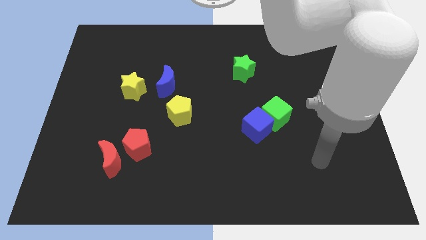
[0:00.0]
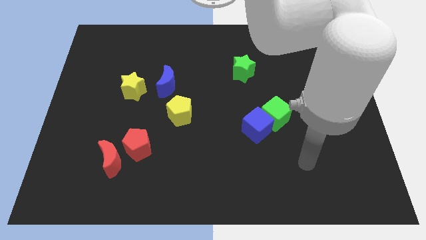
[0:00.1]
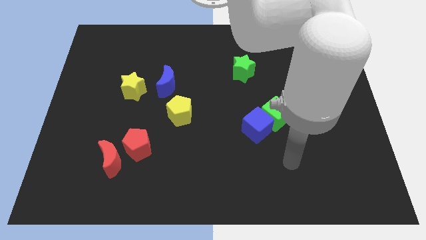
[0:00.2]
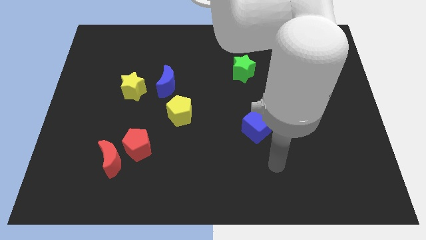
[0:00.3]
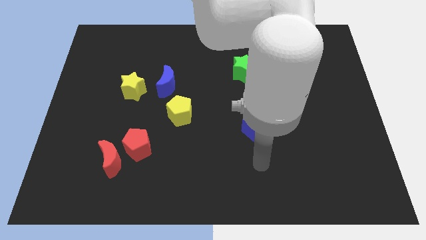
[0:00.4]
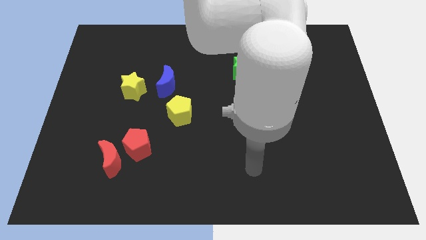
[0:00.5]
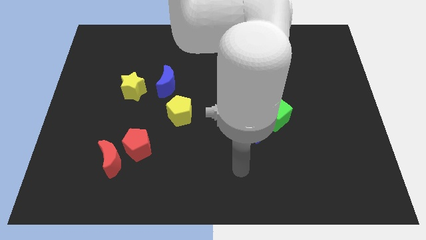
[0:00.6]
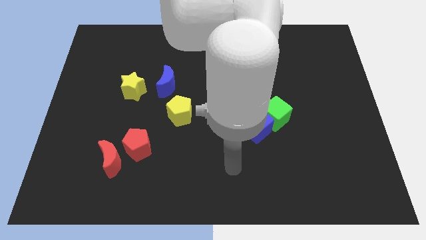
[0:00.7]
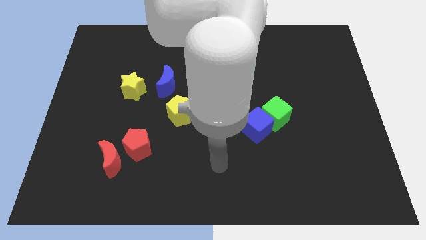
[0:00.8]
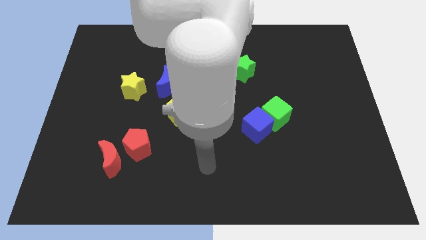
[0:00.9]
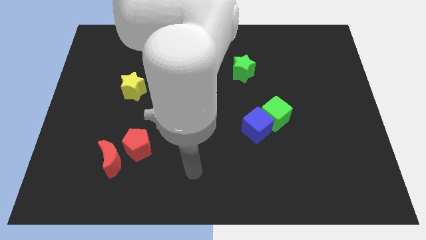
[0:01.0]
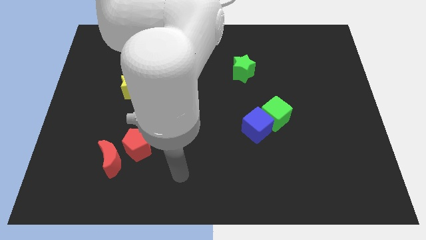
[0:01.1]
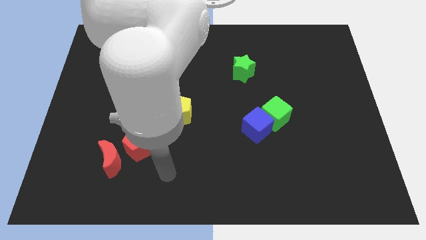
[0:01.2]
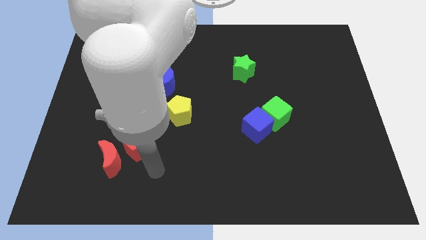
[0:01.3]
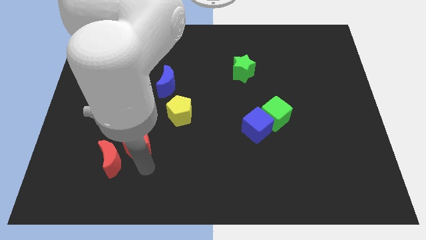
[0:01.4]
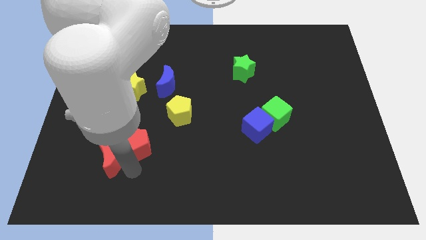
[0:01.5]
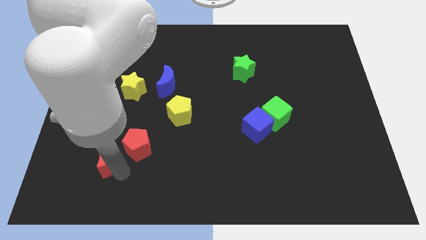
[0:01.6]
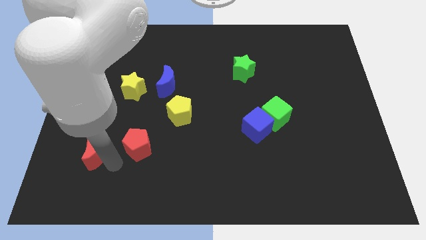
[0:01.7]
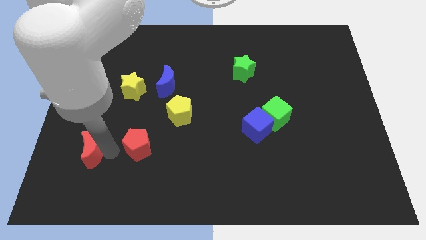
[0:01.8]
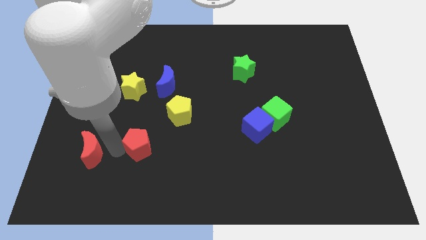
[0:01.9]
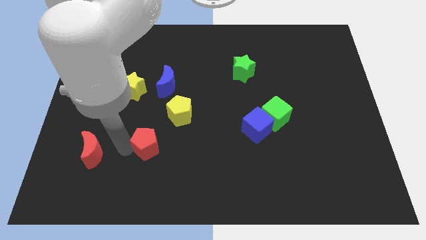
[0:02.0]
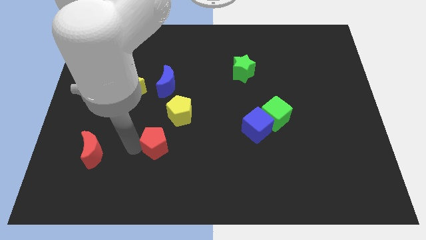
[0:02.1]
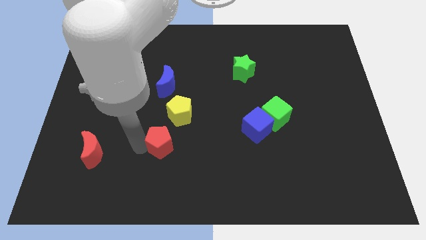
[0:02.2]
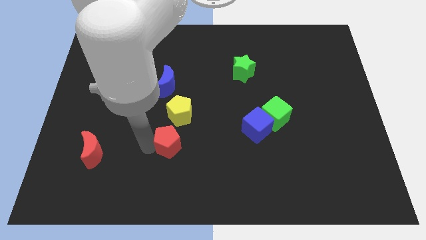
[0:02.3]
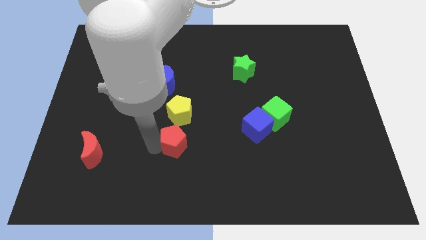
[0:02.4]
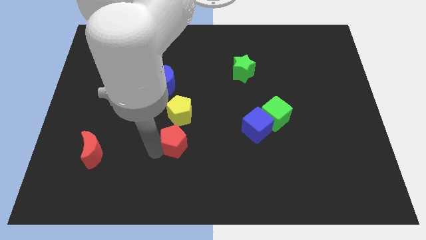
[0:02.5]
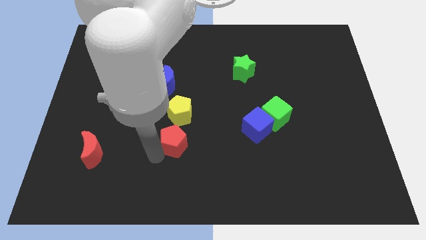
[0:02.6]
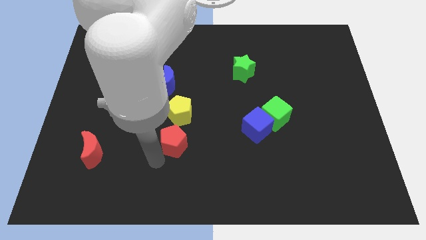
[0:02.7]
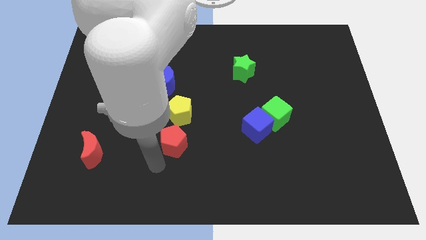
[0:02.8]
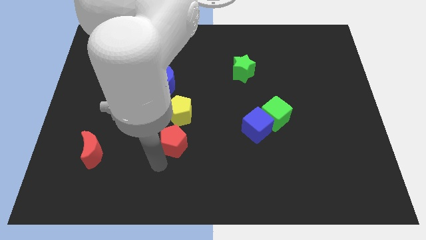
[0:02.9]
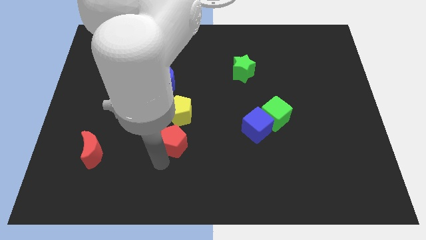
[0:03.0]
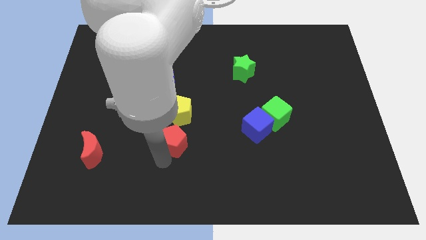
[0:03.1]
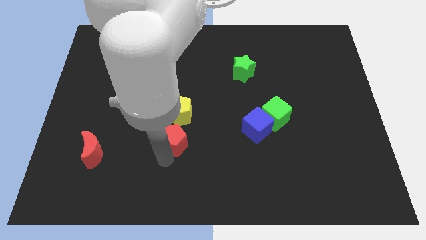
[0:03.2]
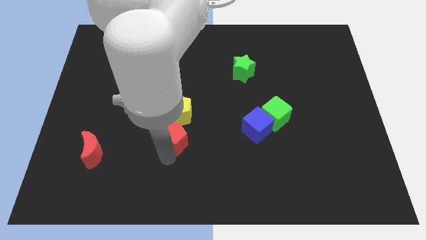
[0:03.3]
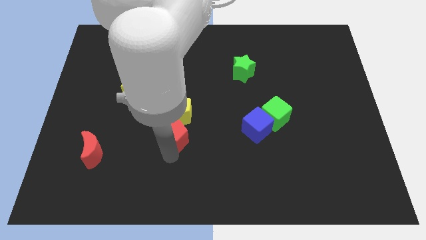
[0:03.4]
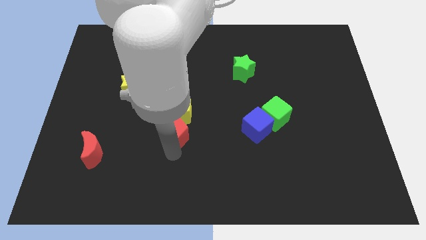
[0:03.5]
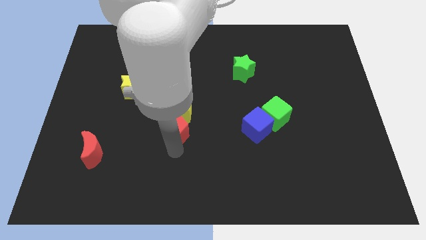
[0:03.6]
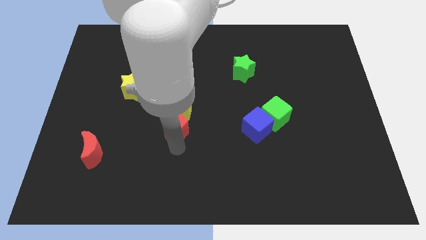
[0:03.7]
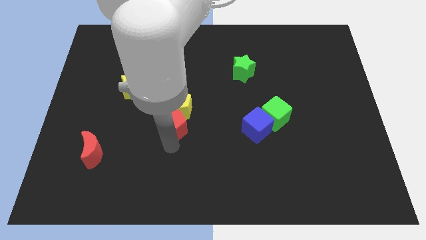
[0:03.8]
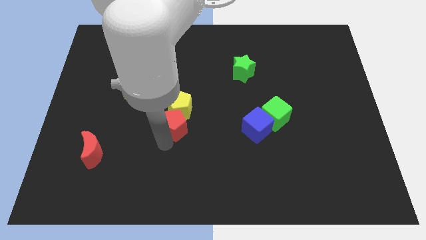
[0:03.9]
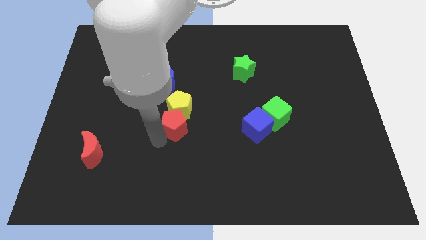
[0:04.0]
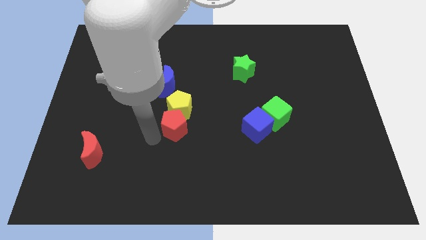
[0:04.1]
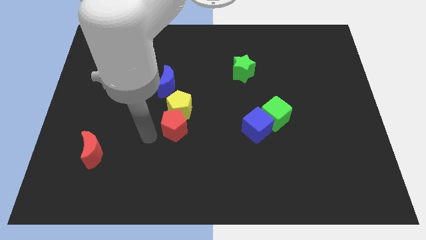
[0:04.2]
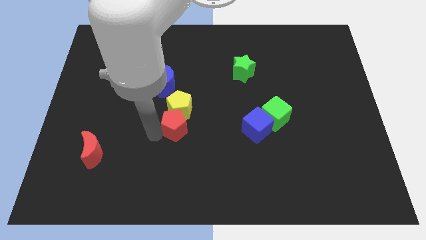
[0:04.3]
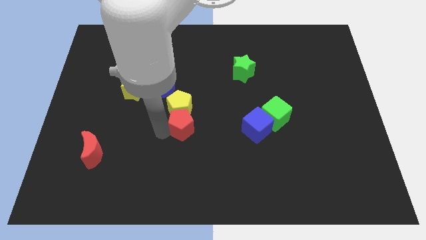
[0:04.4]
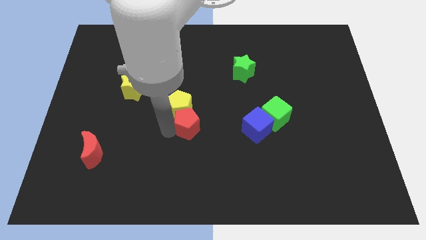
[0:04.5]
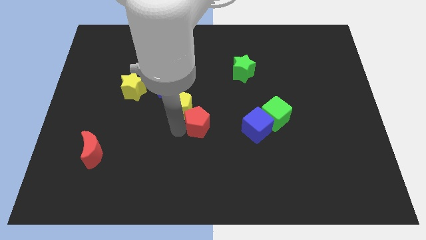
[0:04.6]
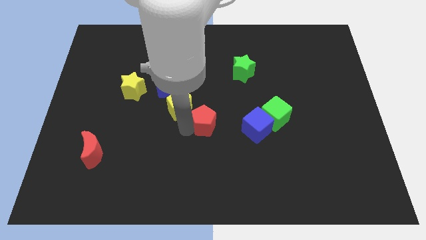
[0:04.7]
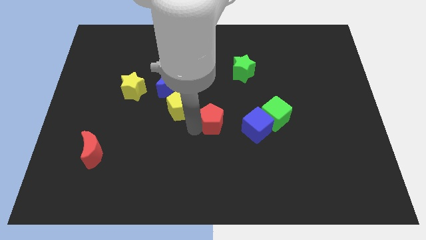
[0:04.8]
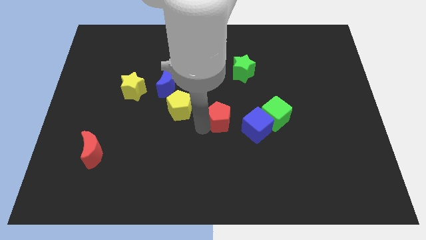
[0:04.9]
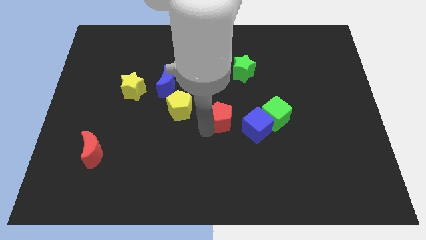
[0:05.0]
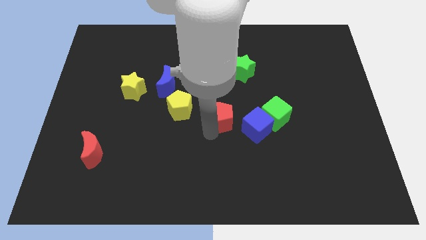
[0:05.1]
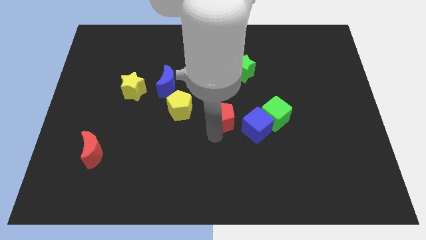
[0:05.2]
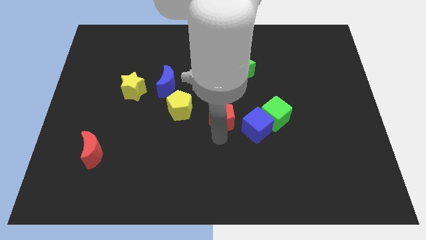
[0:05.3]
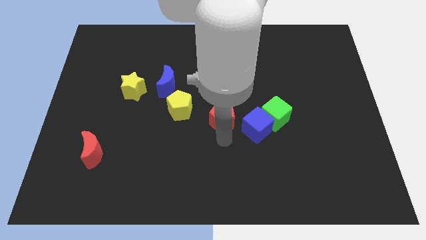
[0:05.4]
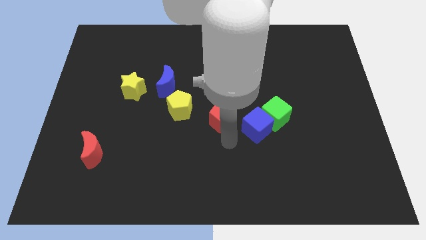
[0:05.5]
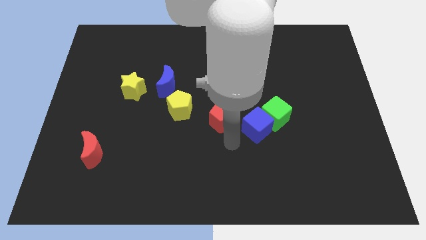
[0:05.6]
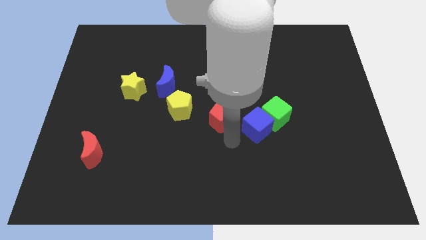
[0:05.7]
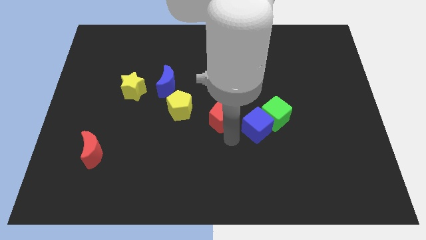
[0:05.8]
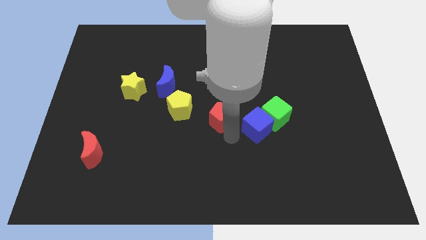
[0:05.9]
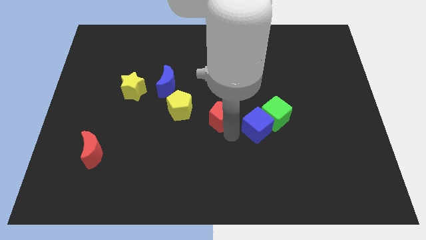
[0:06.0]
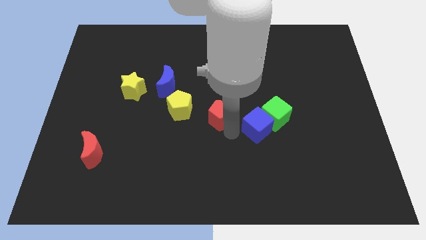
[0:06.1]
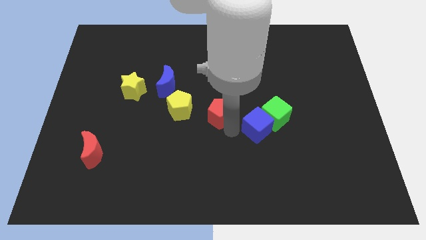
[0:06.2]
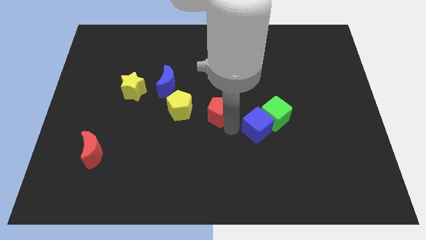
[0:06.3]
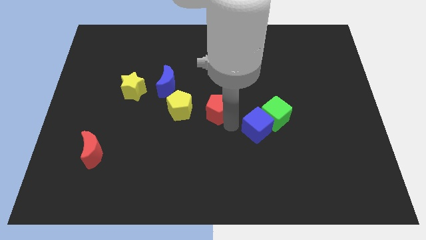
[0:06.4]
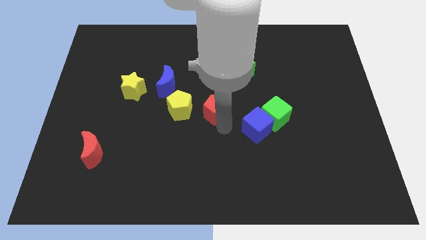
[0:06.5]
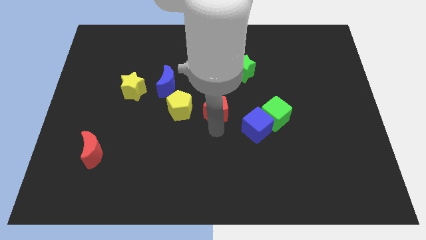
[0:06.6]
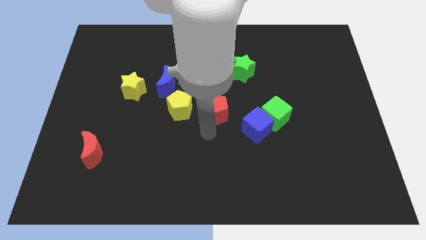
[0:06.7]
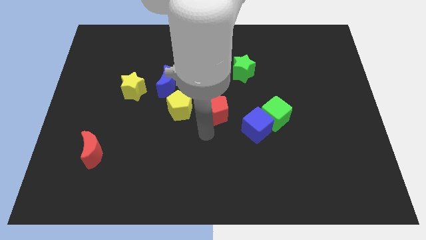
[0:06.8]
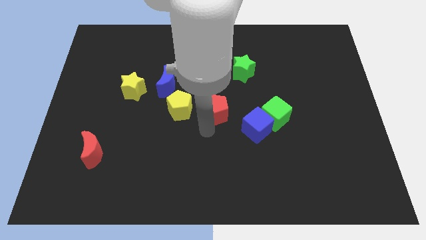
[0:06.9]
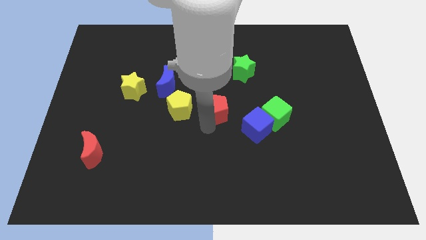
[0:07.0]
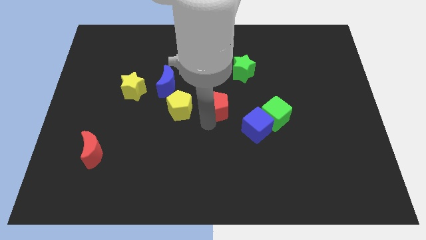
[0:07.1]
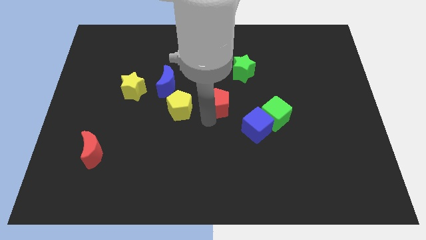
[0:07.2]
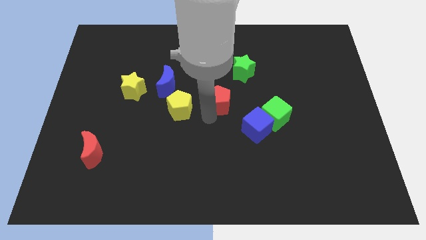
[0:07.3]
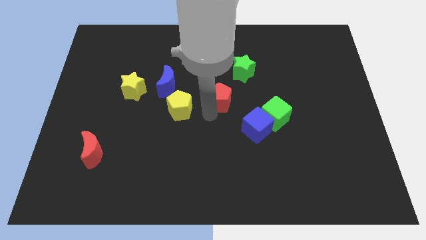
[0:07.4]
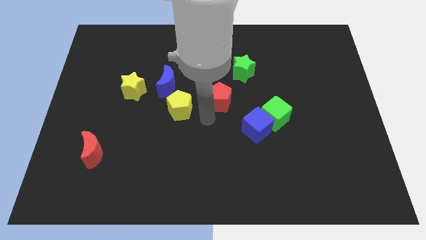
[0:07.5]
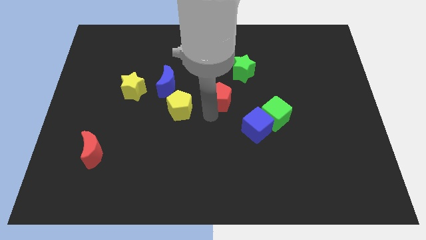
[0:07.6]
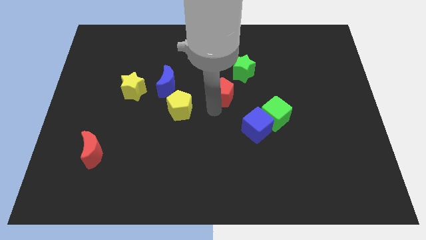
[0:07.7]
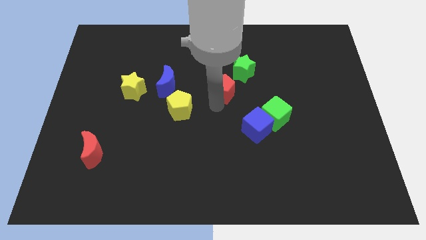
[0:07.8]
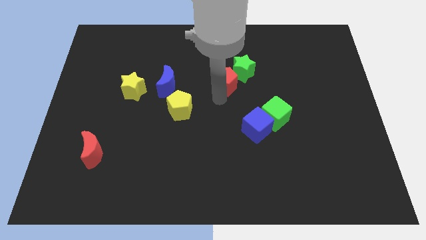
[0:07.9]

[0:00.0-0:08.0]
put the red pentagon close to the green star

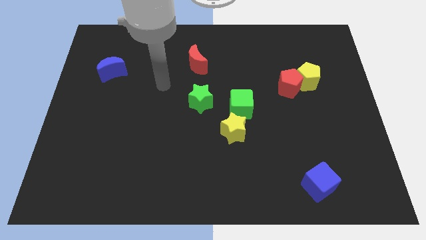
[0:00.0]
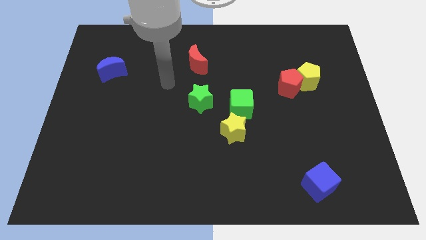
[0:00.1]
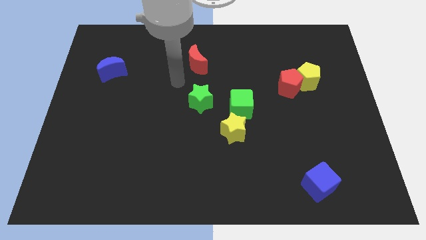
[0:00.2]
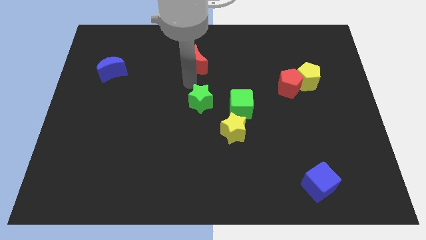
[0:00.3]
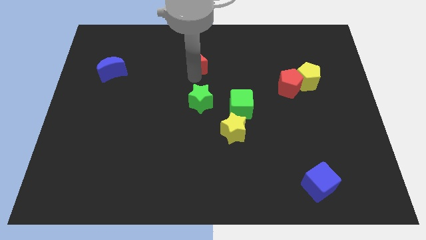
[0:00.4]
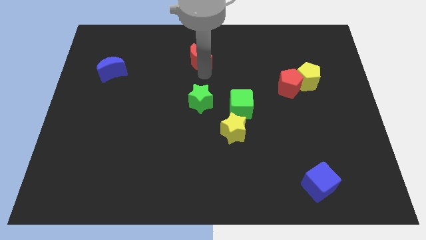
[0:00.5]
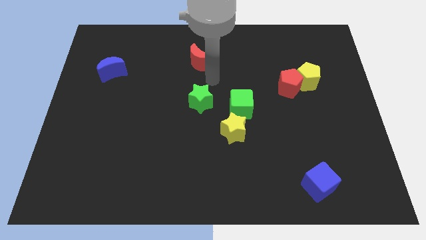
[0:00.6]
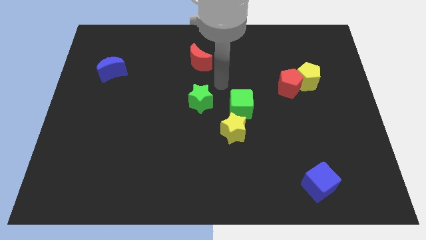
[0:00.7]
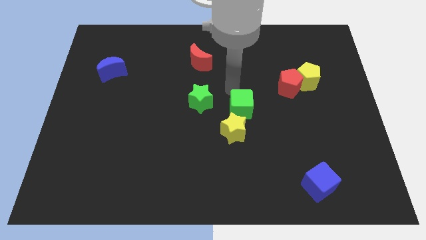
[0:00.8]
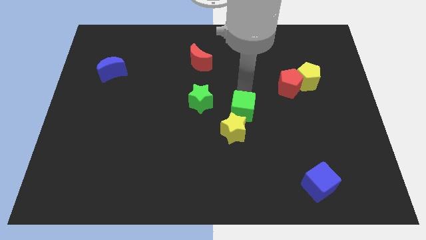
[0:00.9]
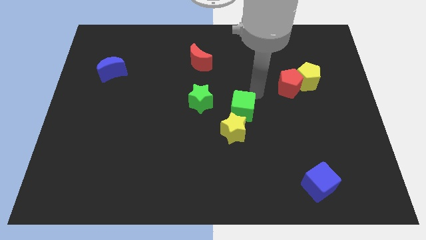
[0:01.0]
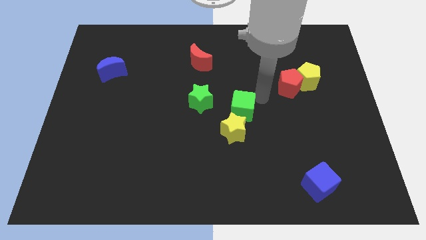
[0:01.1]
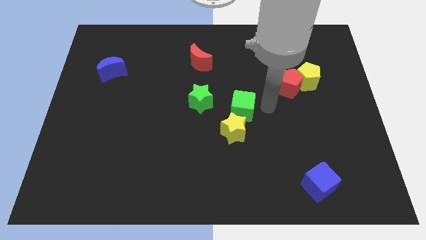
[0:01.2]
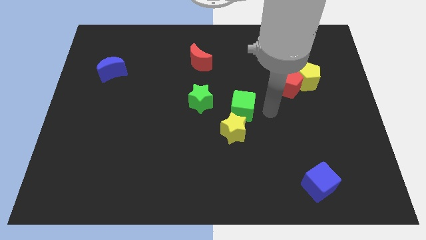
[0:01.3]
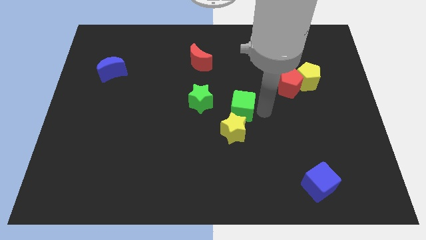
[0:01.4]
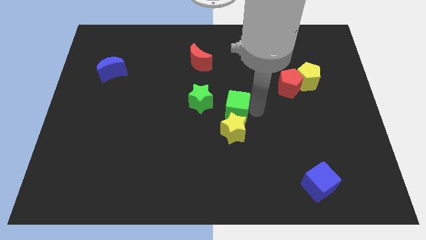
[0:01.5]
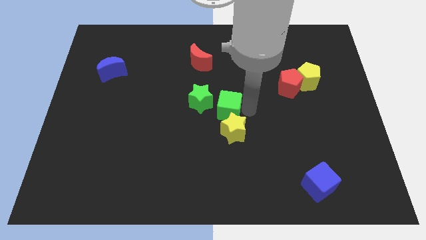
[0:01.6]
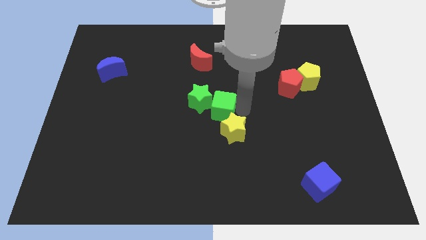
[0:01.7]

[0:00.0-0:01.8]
put the green cube close to the green star
